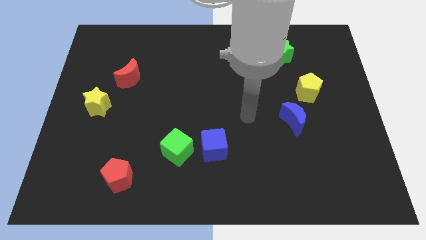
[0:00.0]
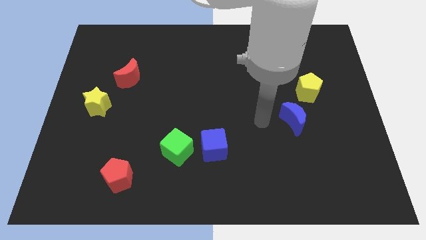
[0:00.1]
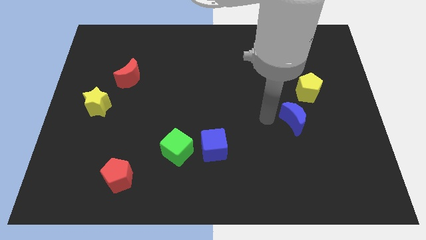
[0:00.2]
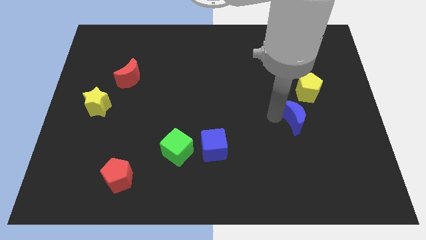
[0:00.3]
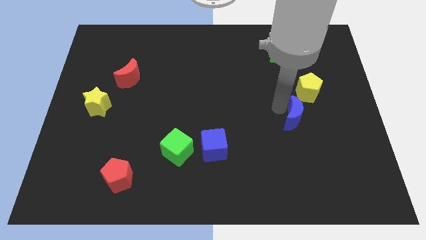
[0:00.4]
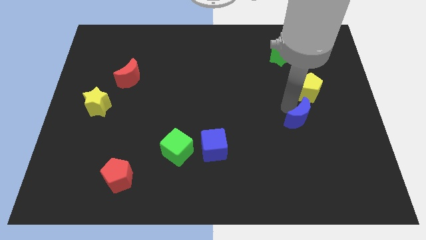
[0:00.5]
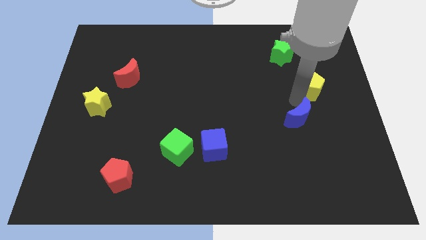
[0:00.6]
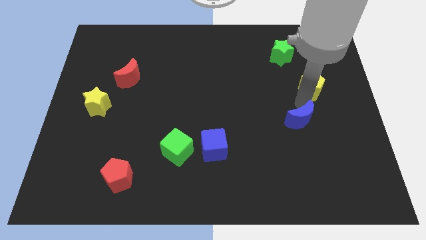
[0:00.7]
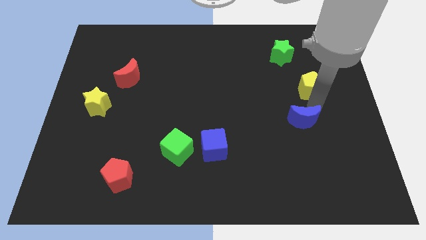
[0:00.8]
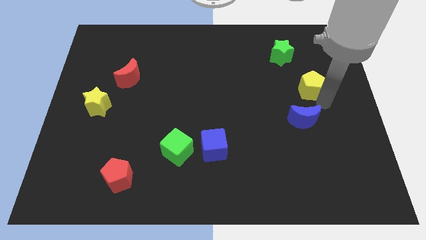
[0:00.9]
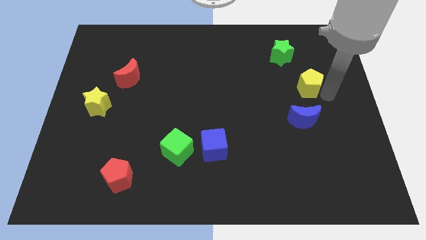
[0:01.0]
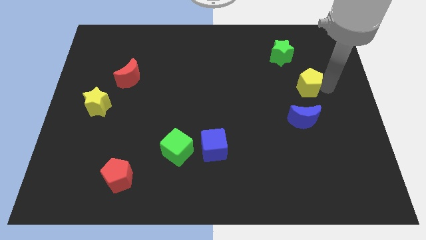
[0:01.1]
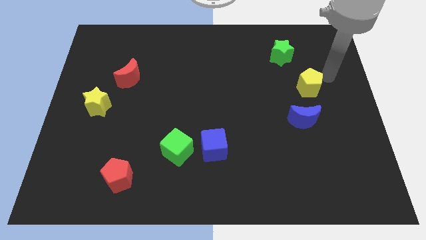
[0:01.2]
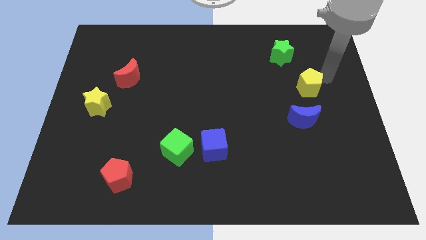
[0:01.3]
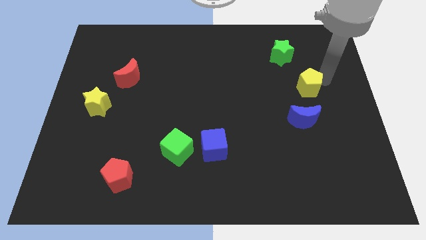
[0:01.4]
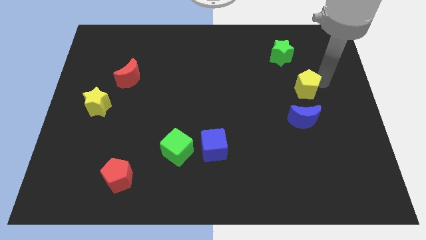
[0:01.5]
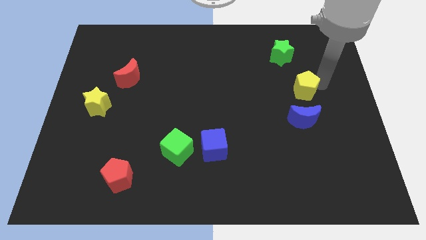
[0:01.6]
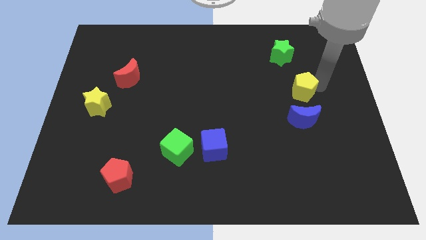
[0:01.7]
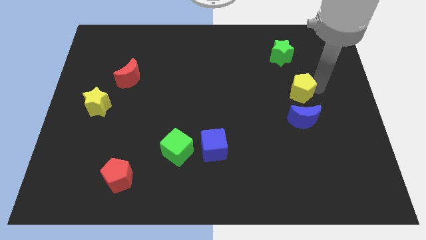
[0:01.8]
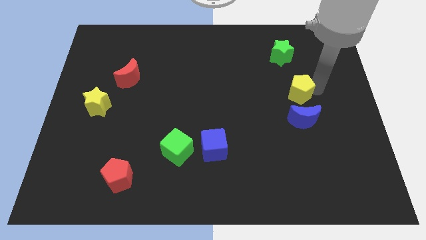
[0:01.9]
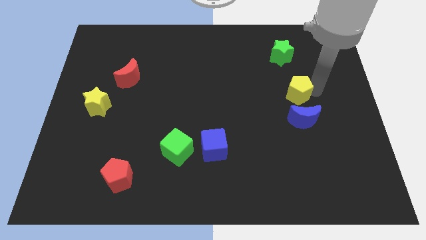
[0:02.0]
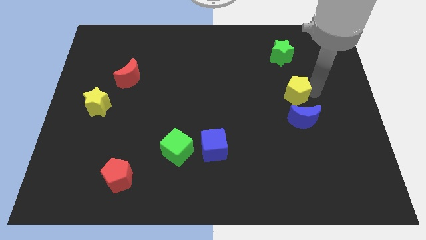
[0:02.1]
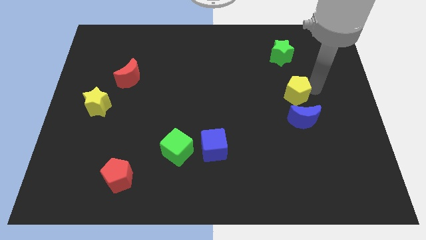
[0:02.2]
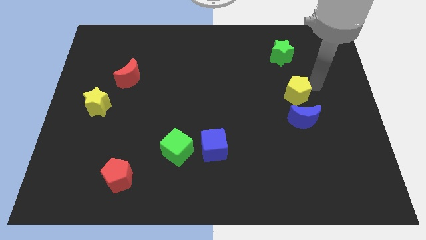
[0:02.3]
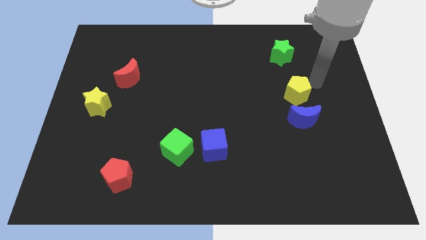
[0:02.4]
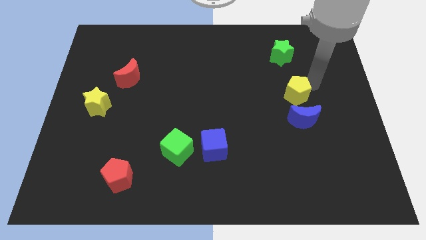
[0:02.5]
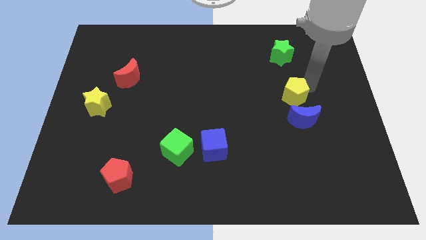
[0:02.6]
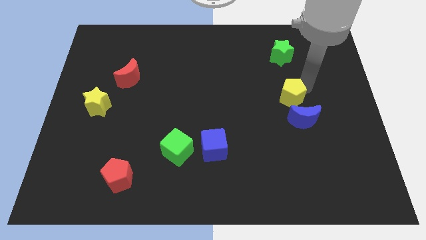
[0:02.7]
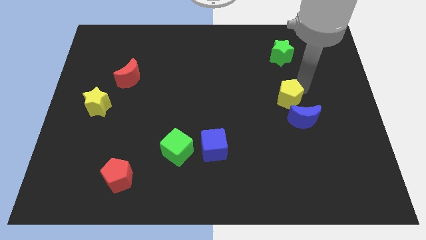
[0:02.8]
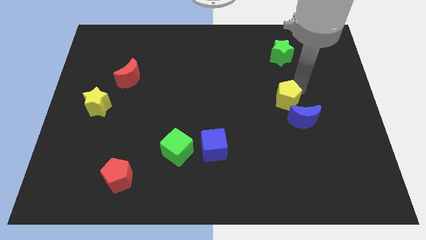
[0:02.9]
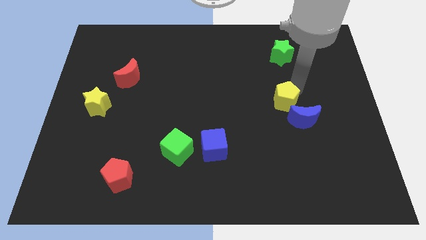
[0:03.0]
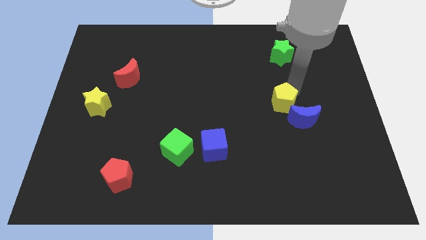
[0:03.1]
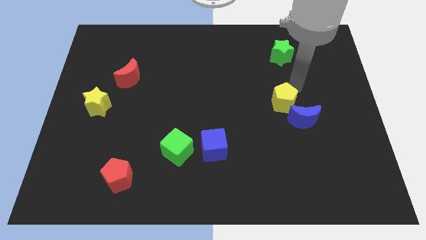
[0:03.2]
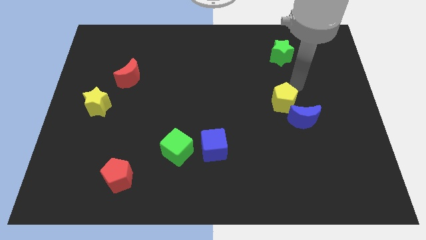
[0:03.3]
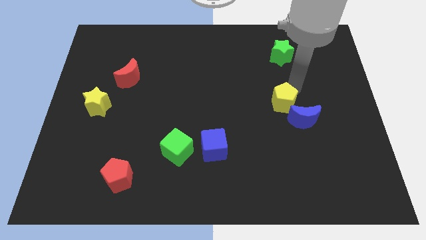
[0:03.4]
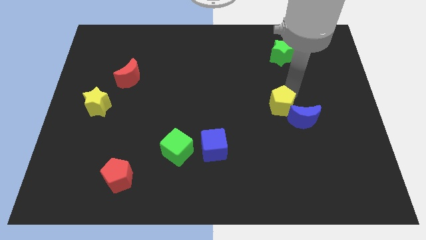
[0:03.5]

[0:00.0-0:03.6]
slightly move the yellow pentagon down and to the left

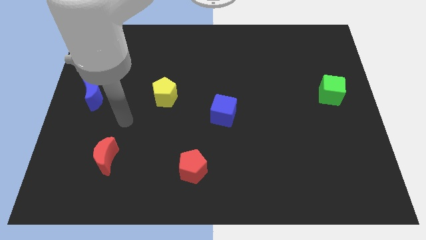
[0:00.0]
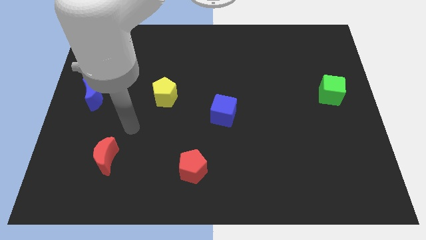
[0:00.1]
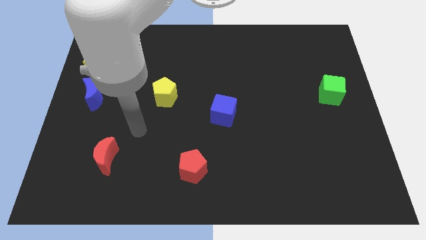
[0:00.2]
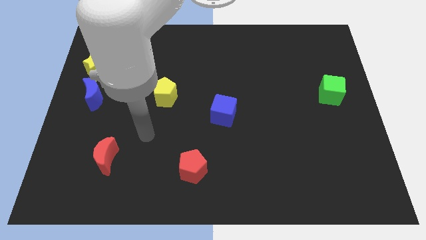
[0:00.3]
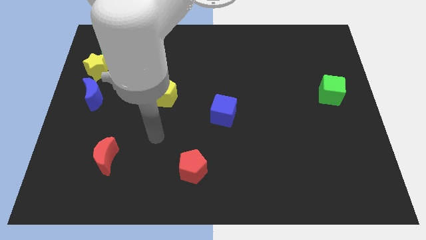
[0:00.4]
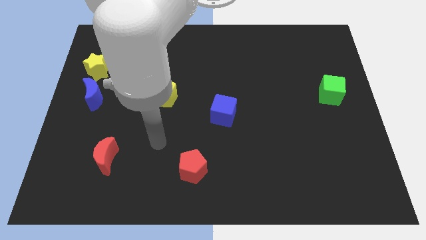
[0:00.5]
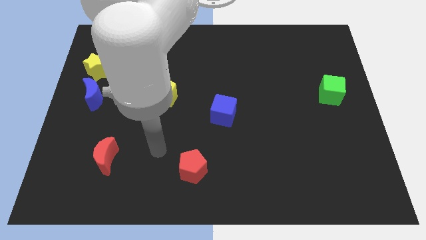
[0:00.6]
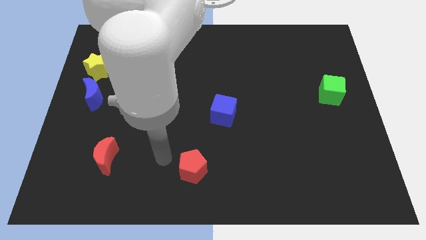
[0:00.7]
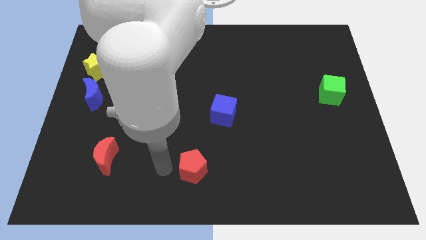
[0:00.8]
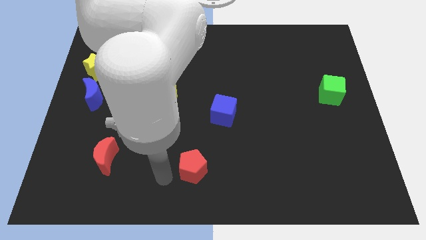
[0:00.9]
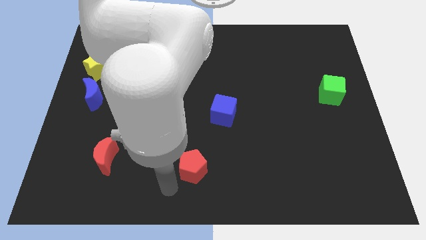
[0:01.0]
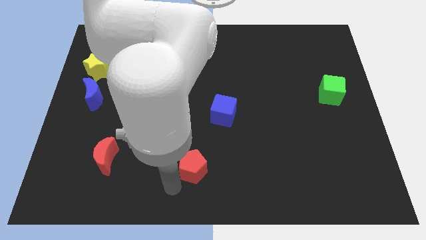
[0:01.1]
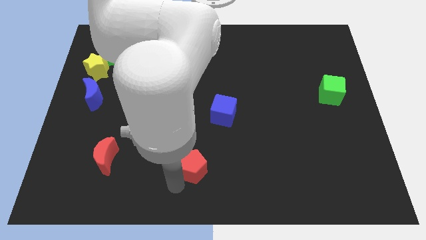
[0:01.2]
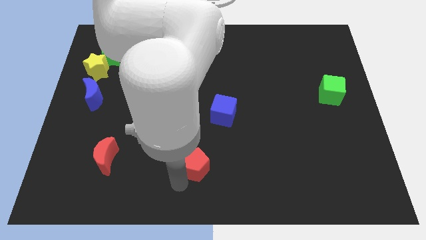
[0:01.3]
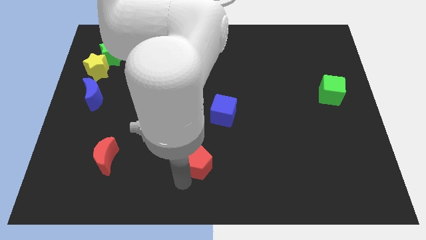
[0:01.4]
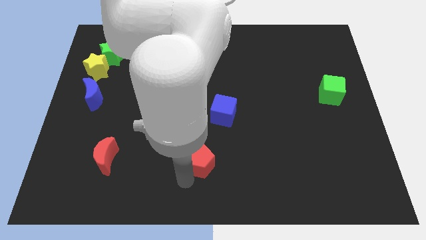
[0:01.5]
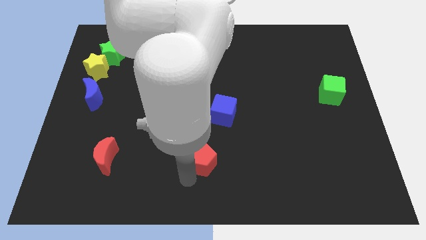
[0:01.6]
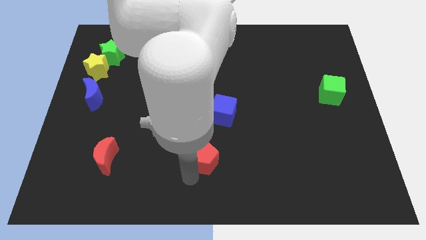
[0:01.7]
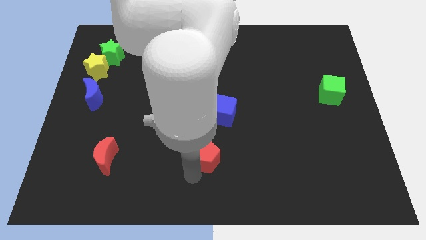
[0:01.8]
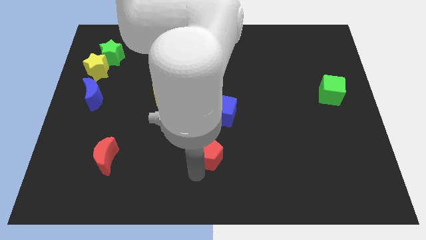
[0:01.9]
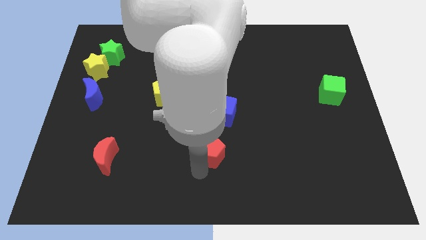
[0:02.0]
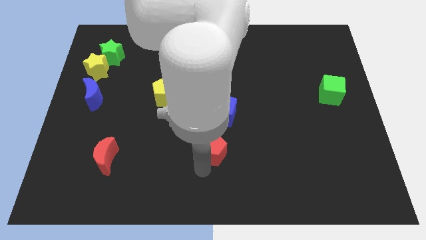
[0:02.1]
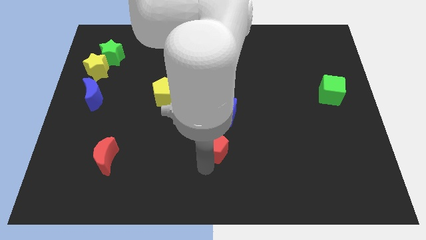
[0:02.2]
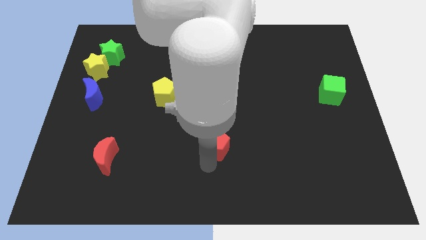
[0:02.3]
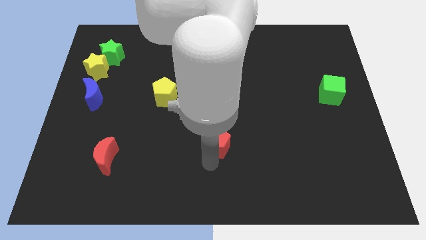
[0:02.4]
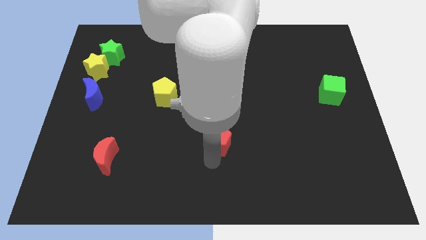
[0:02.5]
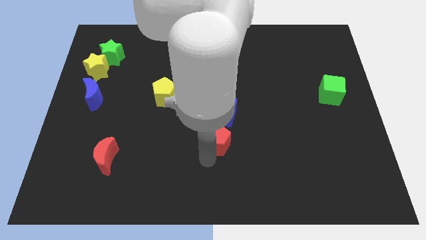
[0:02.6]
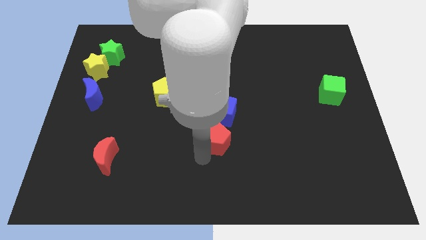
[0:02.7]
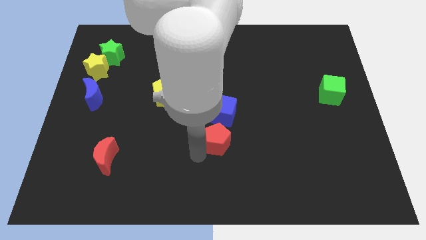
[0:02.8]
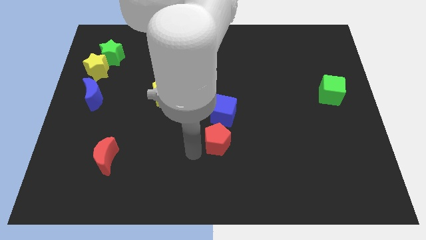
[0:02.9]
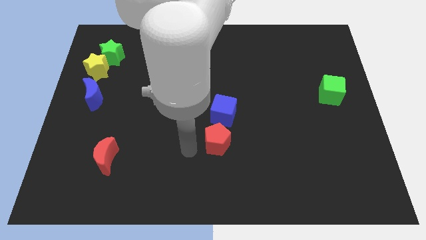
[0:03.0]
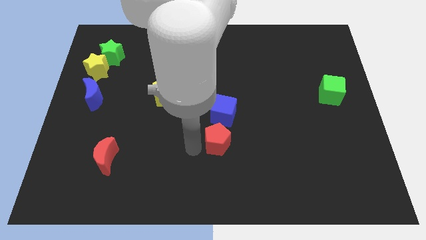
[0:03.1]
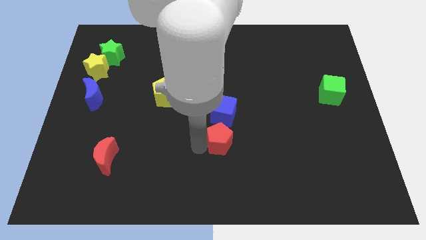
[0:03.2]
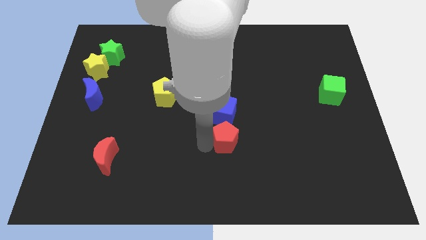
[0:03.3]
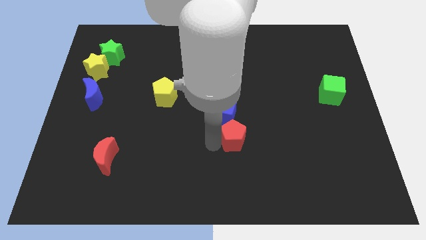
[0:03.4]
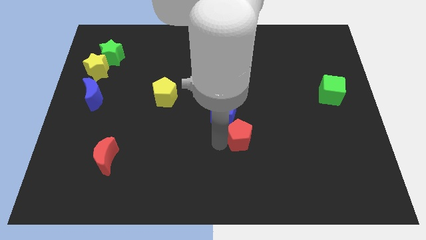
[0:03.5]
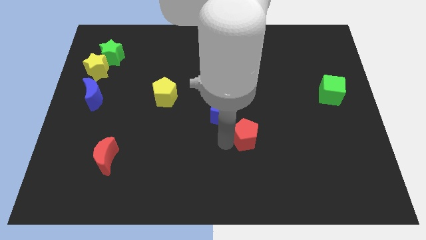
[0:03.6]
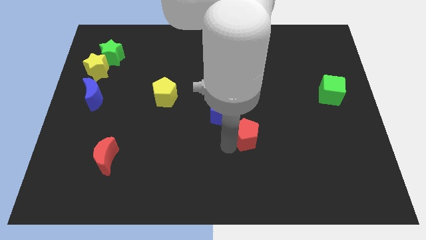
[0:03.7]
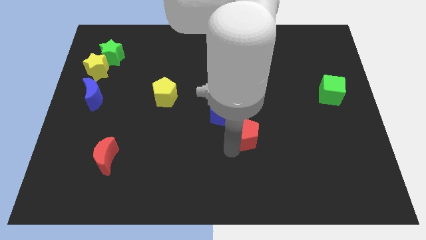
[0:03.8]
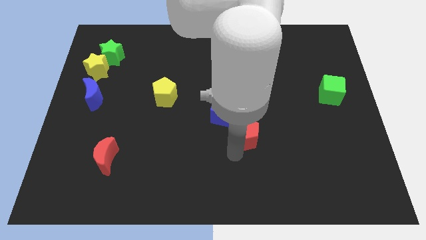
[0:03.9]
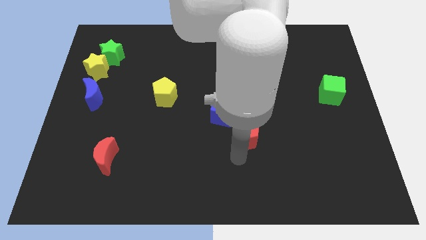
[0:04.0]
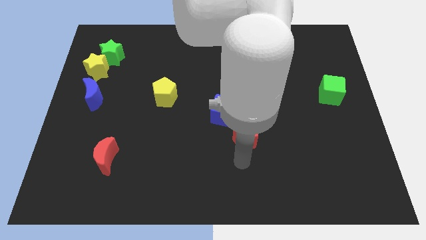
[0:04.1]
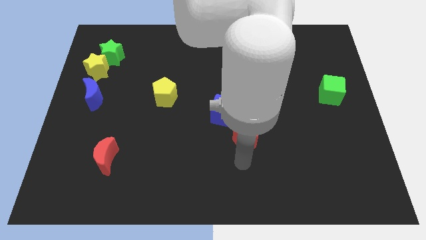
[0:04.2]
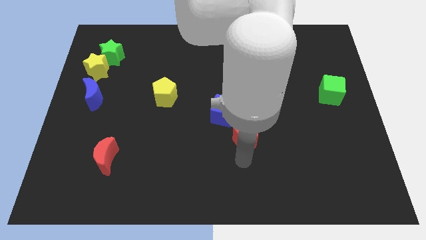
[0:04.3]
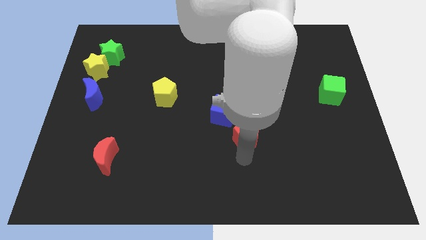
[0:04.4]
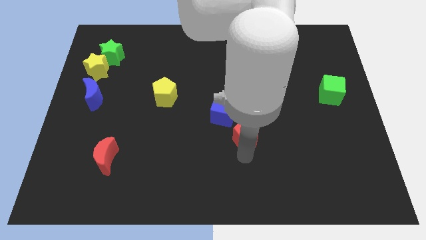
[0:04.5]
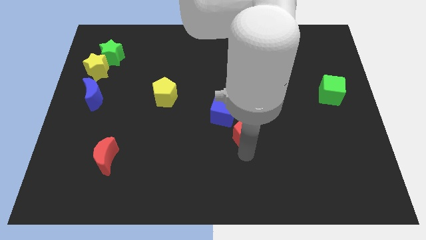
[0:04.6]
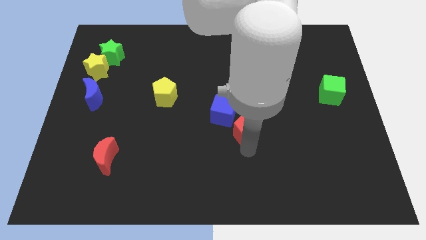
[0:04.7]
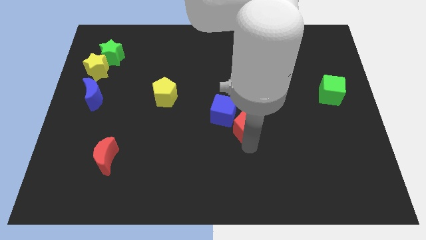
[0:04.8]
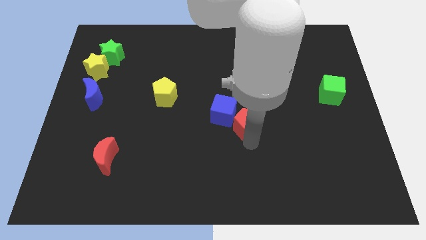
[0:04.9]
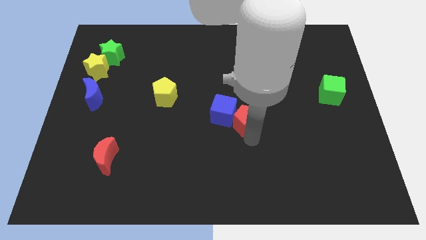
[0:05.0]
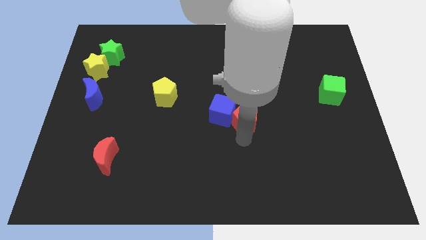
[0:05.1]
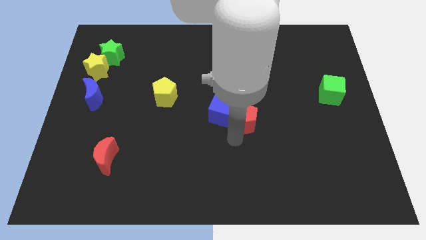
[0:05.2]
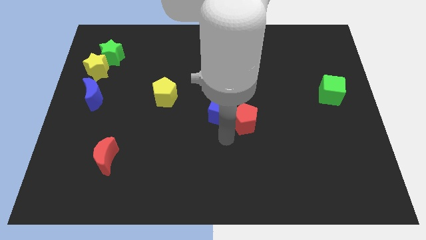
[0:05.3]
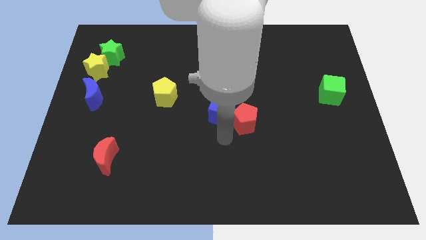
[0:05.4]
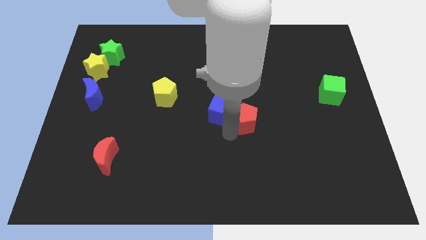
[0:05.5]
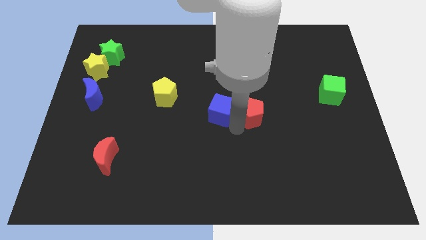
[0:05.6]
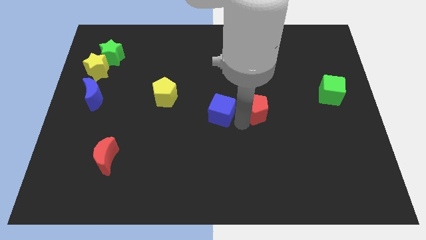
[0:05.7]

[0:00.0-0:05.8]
slide the red pentagon upwards and to the right
